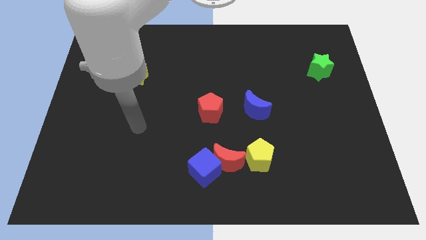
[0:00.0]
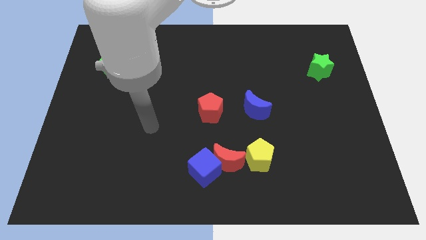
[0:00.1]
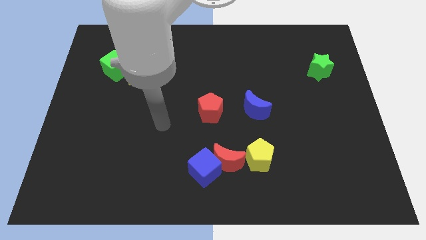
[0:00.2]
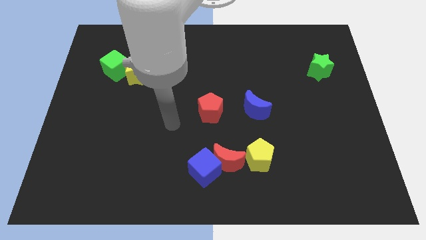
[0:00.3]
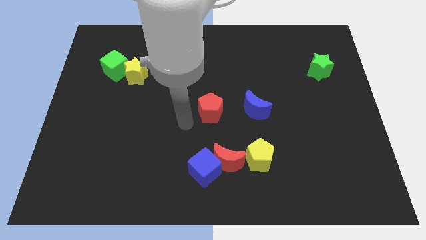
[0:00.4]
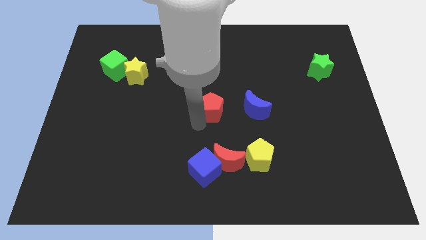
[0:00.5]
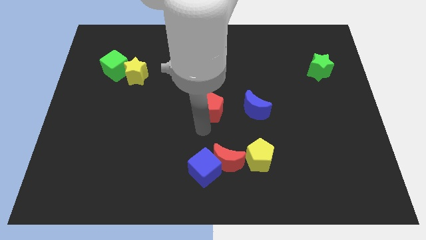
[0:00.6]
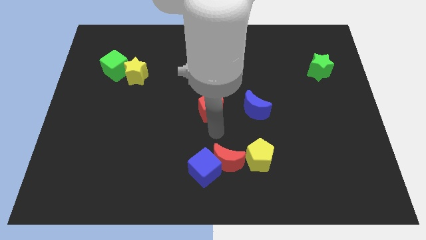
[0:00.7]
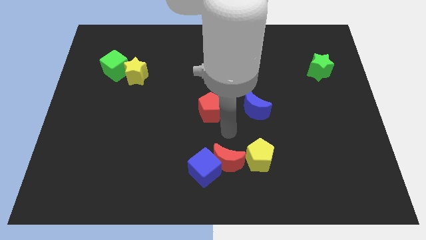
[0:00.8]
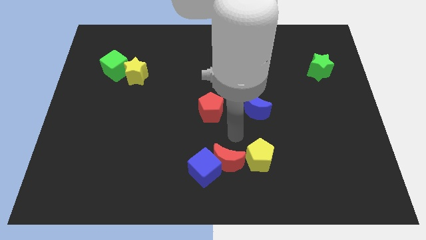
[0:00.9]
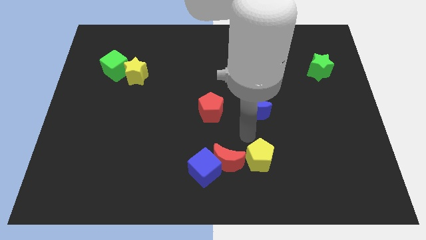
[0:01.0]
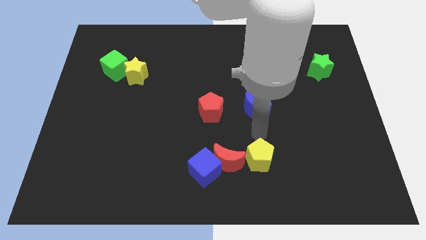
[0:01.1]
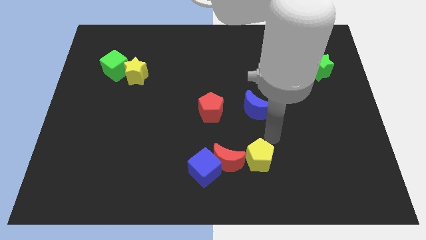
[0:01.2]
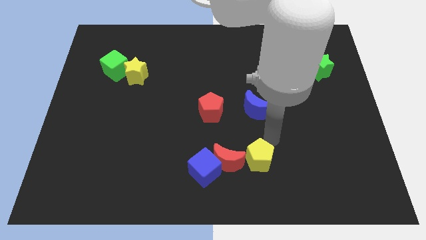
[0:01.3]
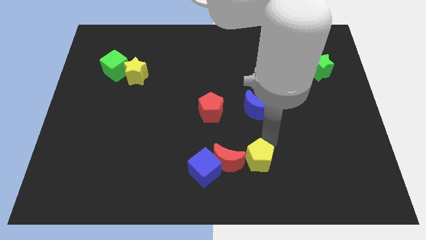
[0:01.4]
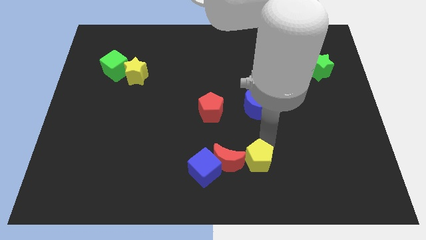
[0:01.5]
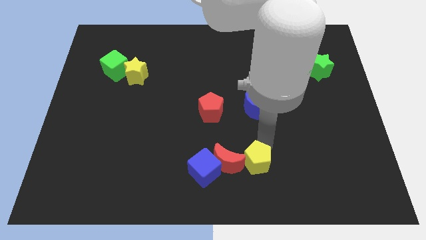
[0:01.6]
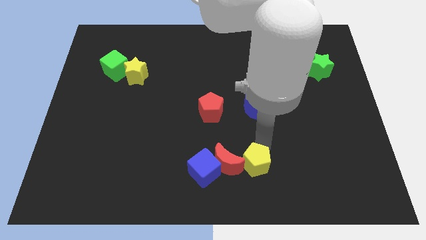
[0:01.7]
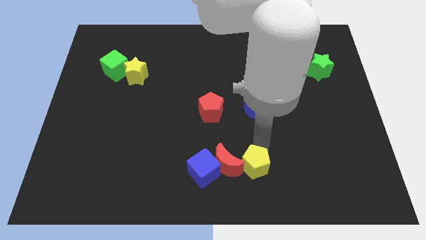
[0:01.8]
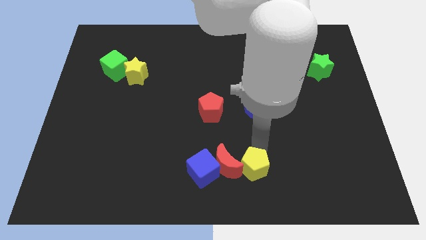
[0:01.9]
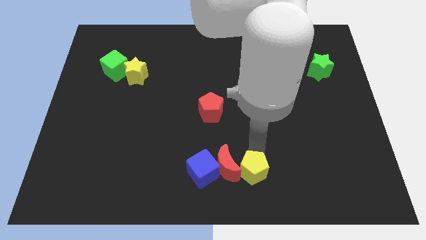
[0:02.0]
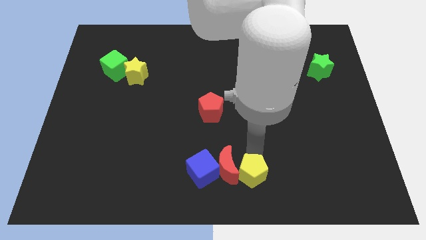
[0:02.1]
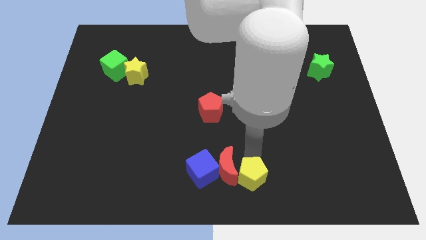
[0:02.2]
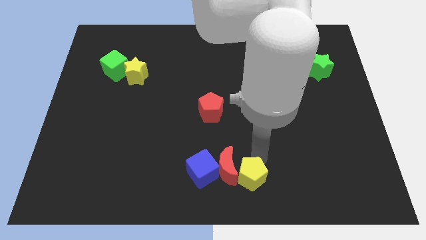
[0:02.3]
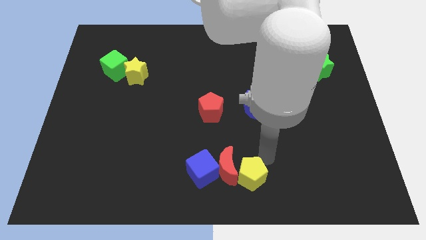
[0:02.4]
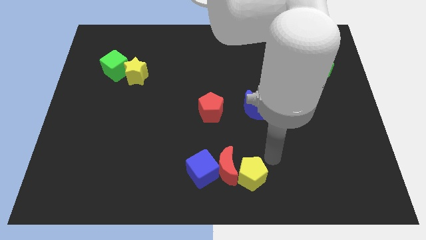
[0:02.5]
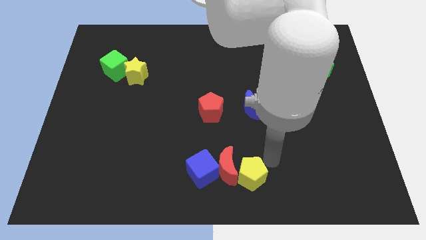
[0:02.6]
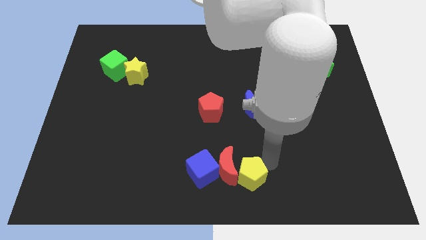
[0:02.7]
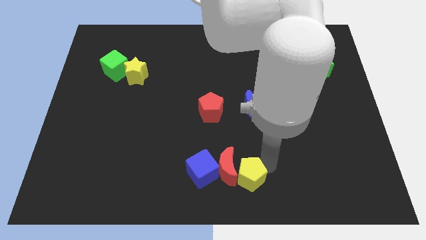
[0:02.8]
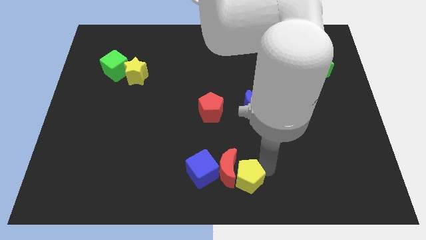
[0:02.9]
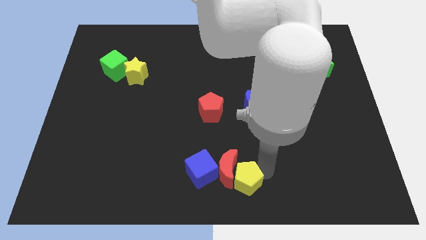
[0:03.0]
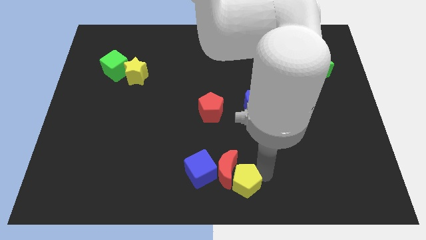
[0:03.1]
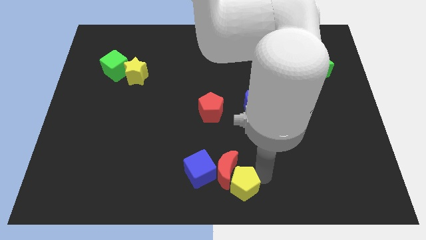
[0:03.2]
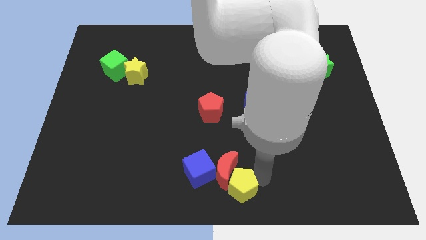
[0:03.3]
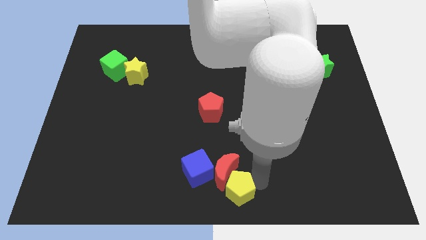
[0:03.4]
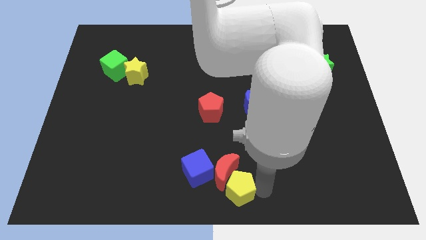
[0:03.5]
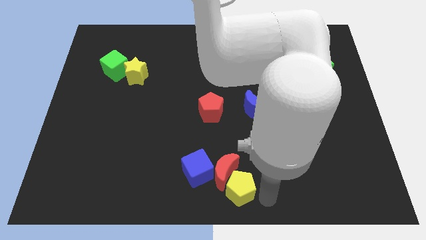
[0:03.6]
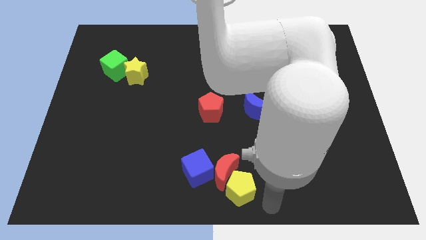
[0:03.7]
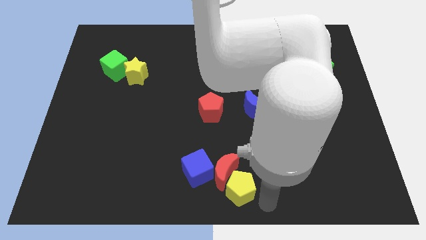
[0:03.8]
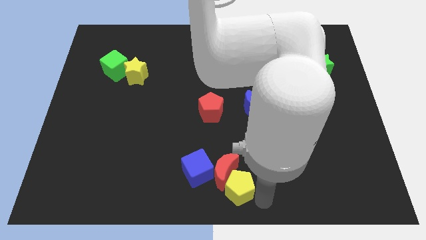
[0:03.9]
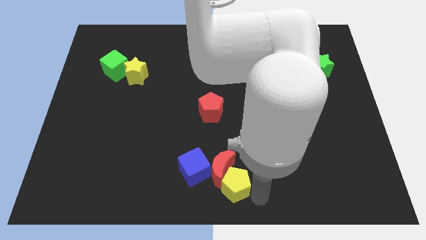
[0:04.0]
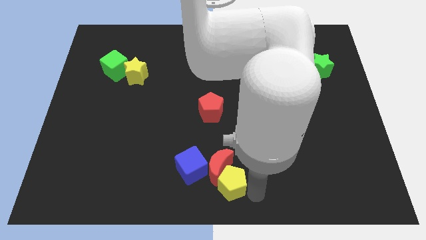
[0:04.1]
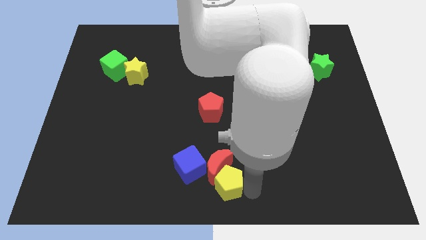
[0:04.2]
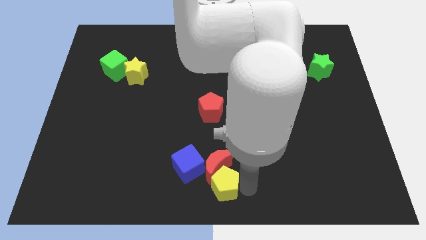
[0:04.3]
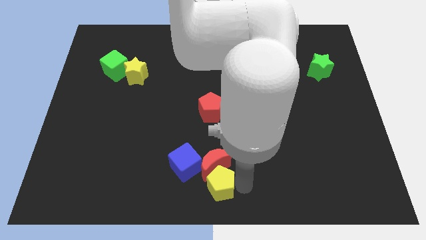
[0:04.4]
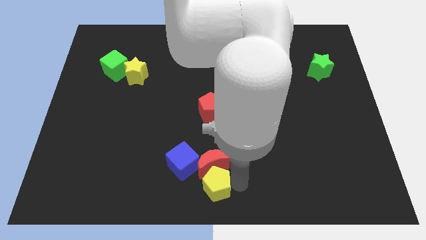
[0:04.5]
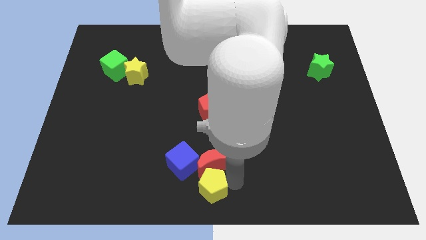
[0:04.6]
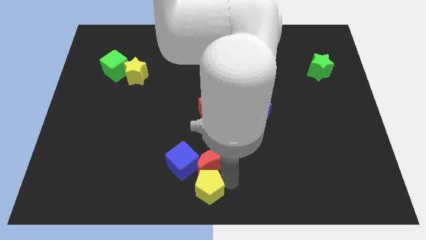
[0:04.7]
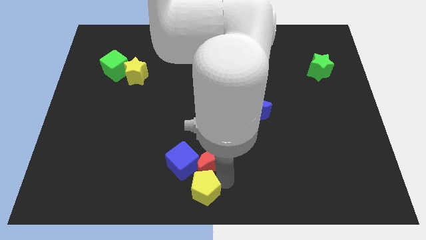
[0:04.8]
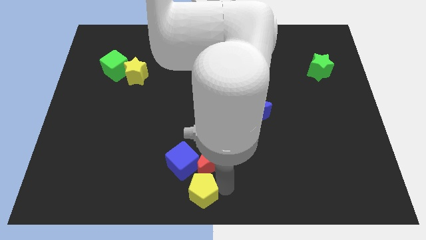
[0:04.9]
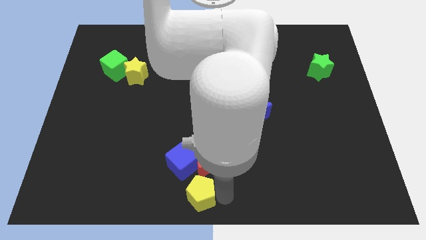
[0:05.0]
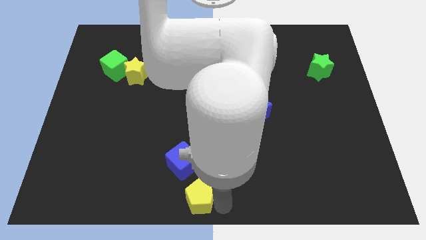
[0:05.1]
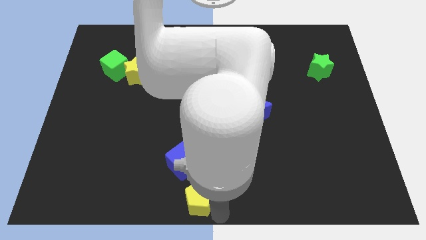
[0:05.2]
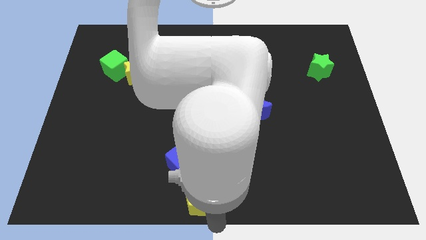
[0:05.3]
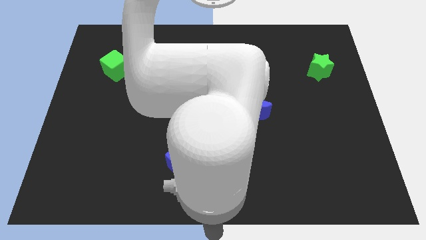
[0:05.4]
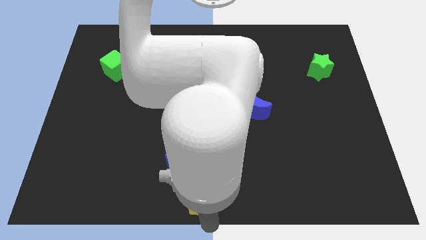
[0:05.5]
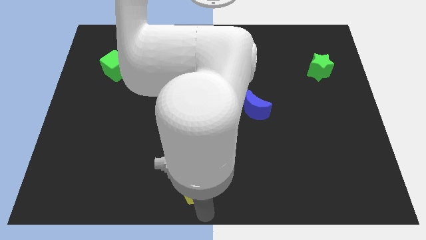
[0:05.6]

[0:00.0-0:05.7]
slide the yellow pentagon towards the blue cube

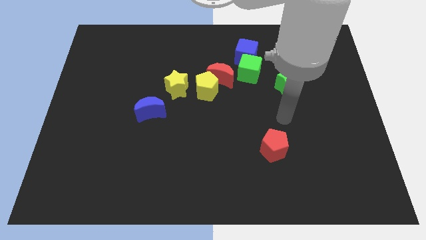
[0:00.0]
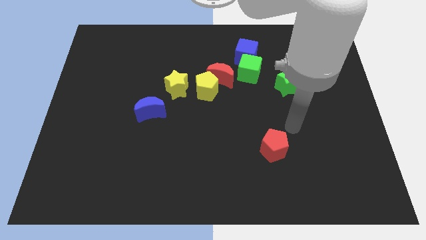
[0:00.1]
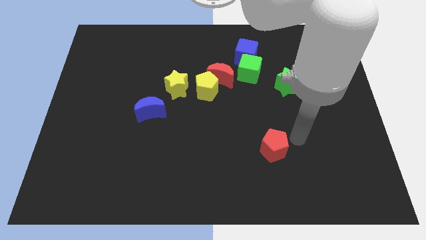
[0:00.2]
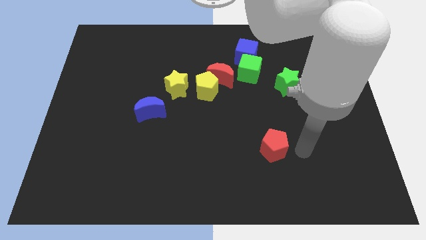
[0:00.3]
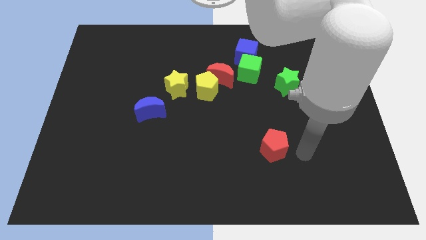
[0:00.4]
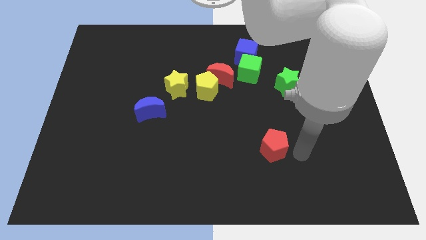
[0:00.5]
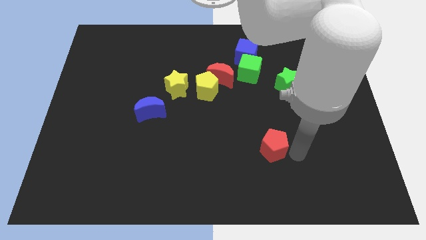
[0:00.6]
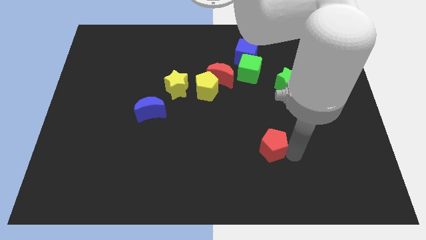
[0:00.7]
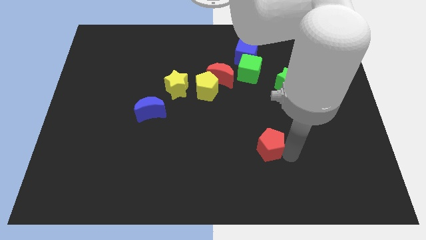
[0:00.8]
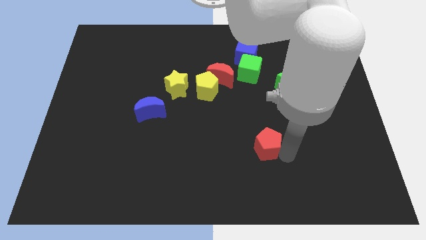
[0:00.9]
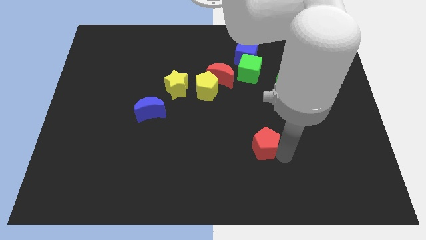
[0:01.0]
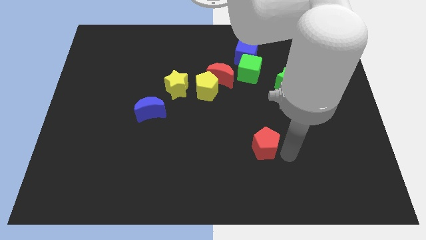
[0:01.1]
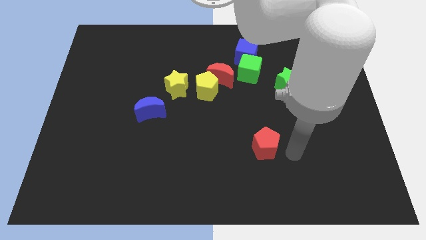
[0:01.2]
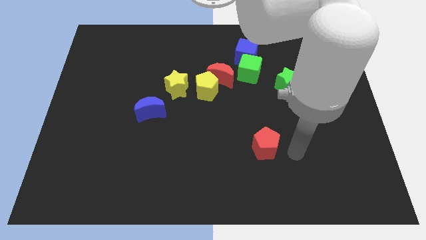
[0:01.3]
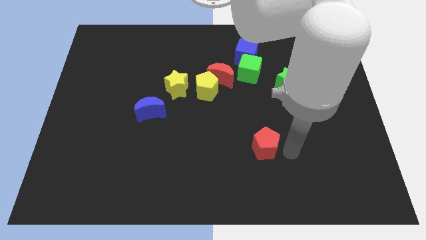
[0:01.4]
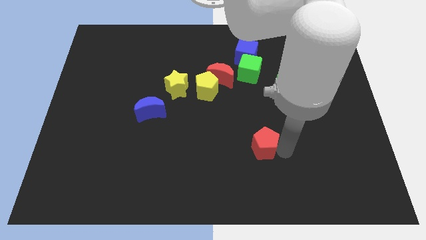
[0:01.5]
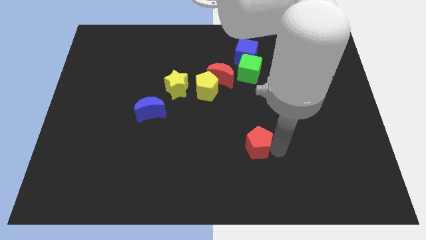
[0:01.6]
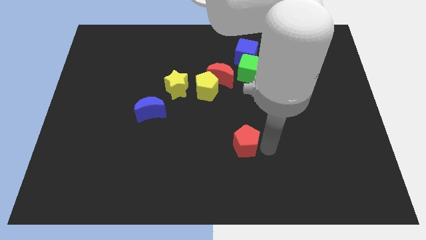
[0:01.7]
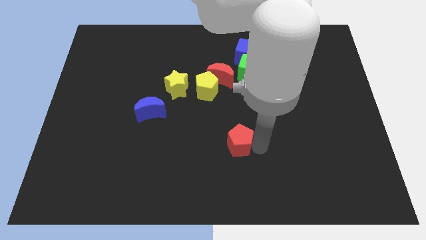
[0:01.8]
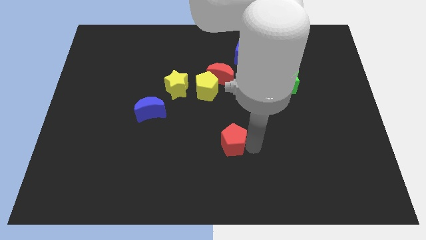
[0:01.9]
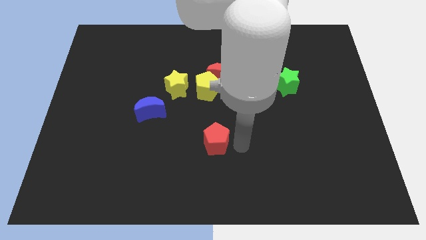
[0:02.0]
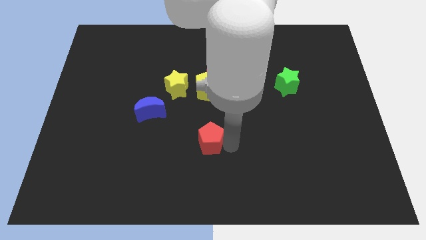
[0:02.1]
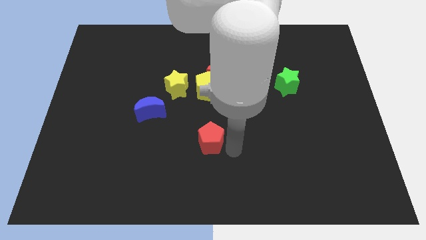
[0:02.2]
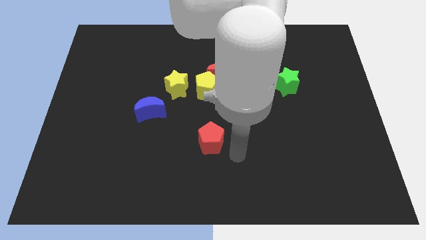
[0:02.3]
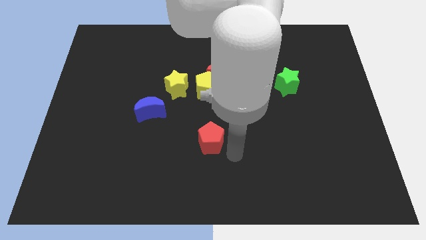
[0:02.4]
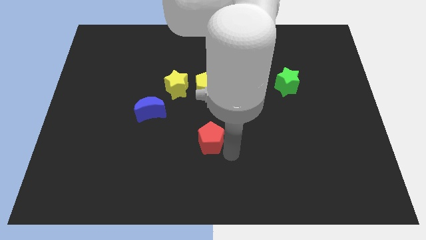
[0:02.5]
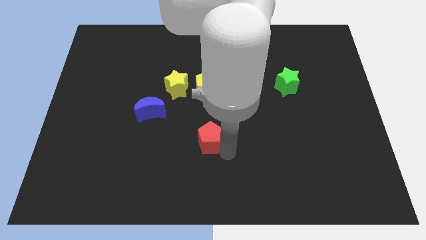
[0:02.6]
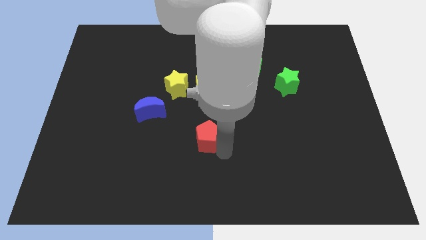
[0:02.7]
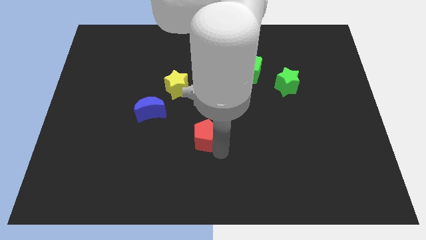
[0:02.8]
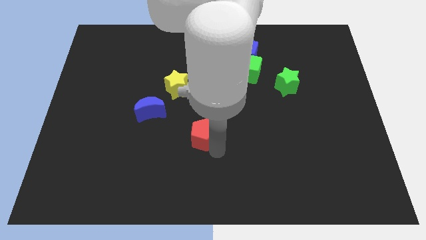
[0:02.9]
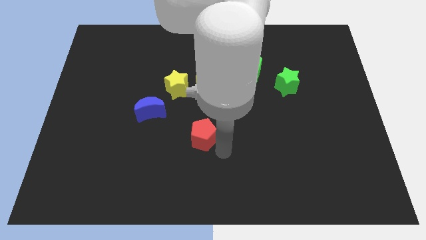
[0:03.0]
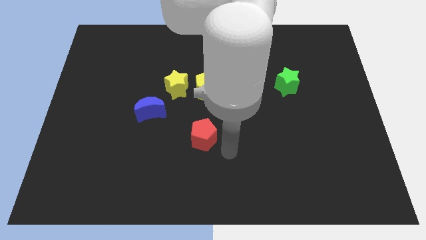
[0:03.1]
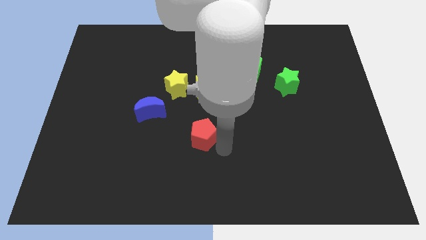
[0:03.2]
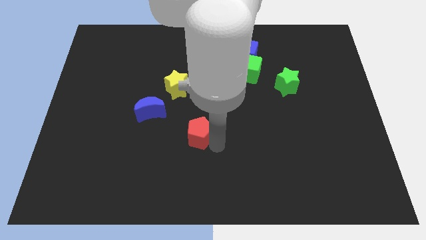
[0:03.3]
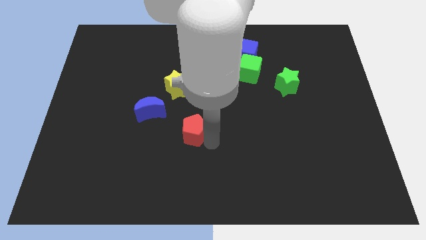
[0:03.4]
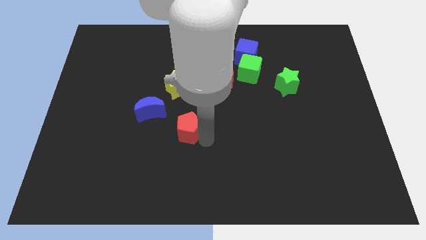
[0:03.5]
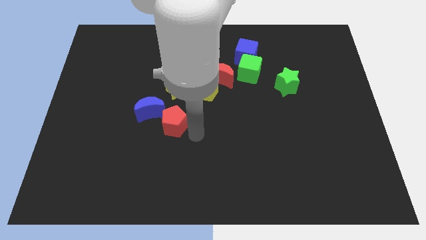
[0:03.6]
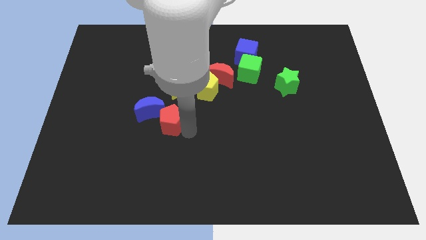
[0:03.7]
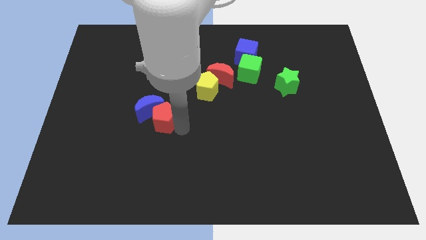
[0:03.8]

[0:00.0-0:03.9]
push the red pentagon to the blue moon
